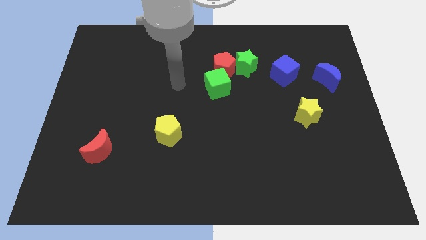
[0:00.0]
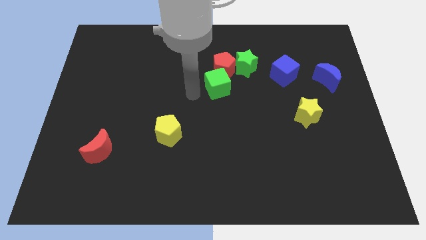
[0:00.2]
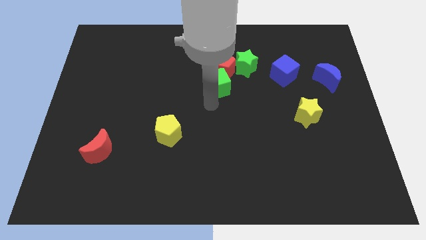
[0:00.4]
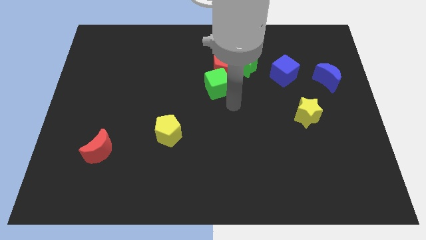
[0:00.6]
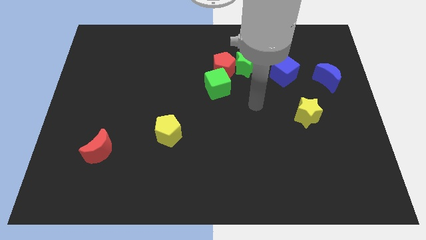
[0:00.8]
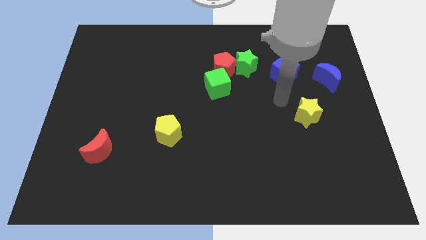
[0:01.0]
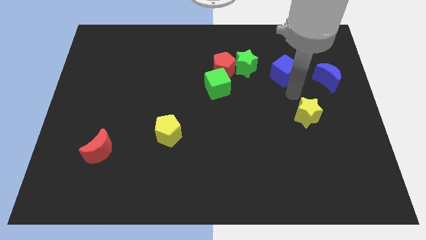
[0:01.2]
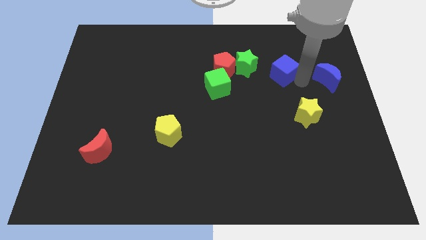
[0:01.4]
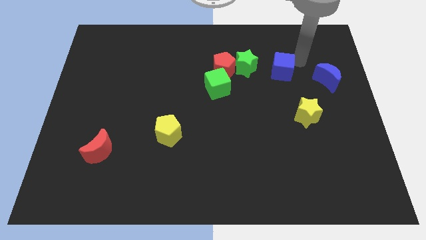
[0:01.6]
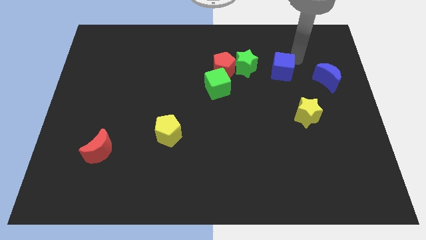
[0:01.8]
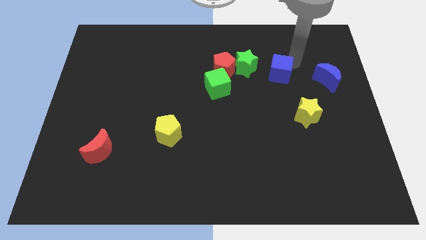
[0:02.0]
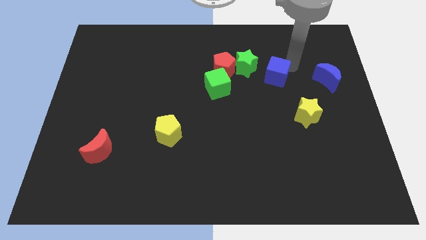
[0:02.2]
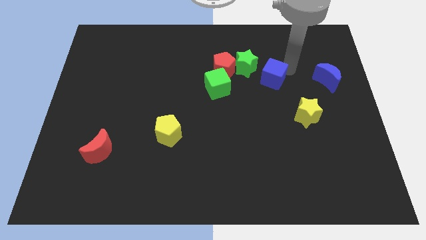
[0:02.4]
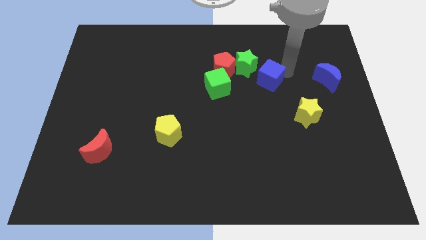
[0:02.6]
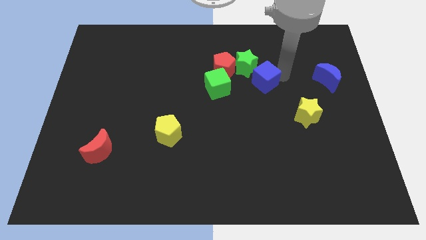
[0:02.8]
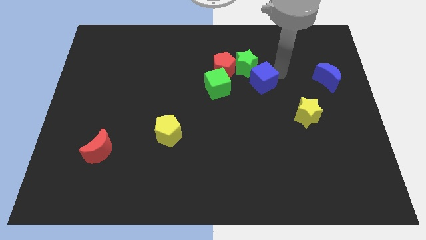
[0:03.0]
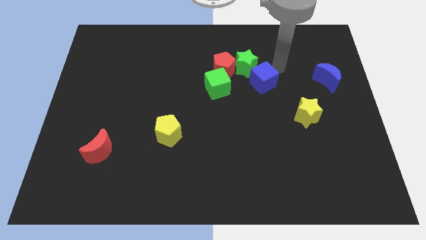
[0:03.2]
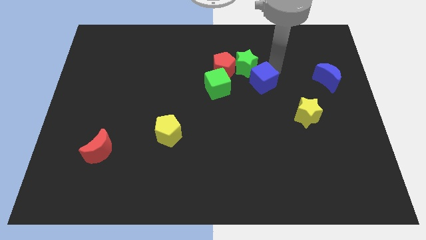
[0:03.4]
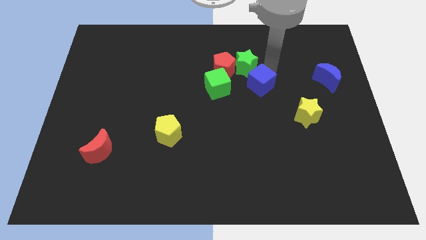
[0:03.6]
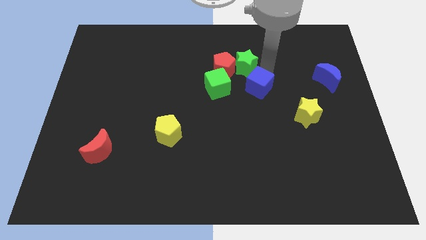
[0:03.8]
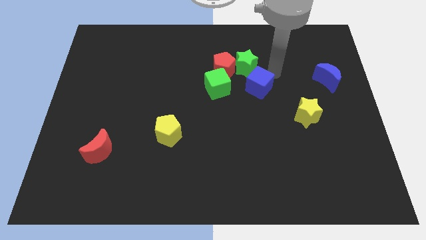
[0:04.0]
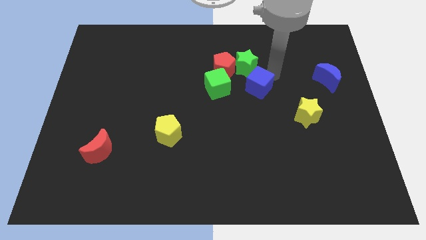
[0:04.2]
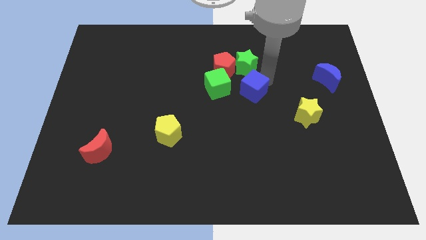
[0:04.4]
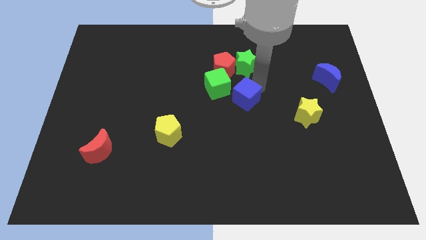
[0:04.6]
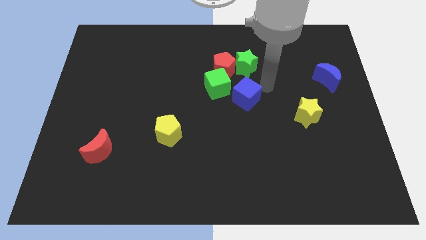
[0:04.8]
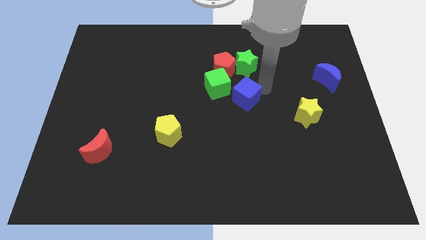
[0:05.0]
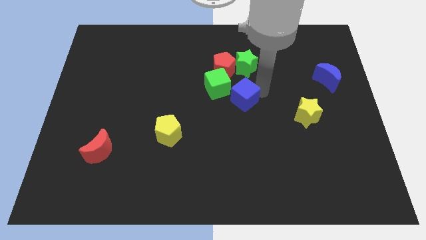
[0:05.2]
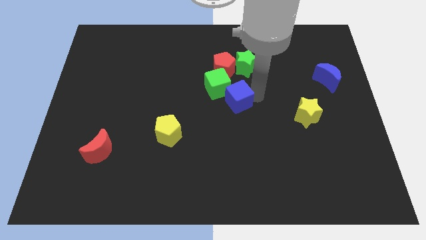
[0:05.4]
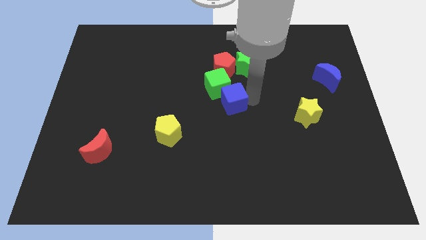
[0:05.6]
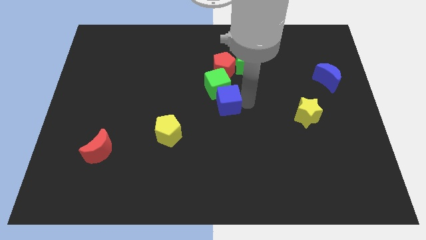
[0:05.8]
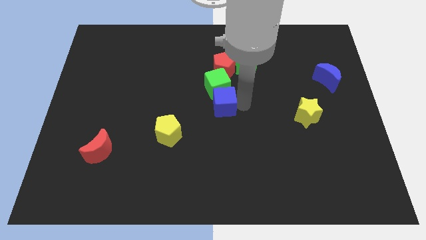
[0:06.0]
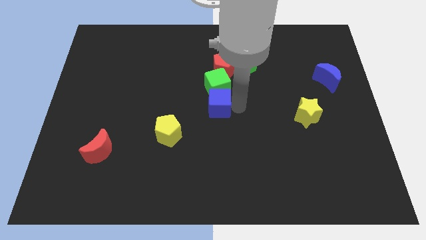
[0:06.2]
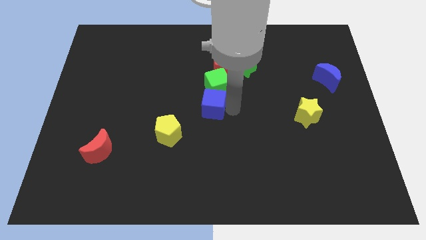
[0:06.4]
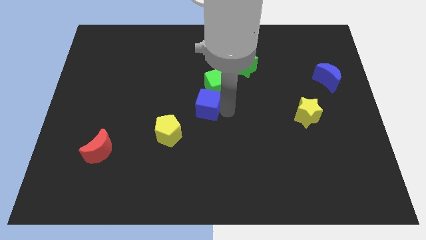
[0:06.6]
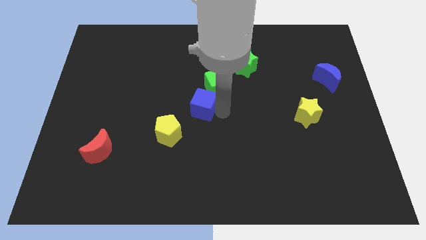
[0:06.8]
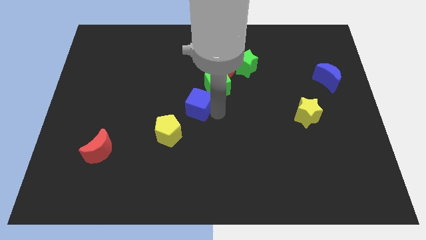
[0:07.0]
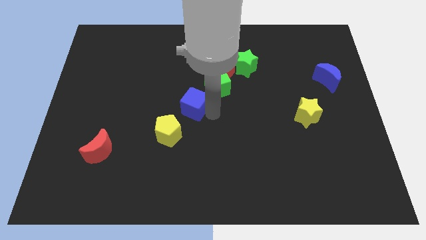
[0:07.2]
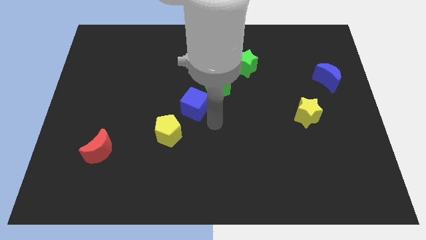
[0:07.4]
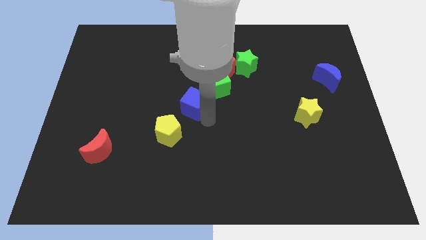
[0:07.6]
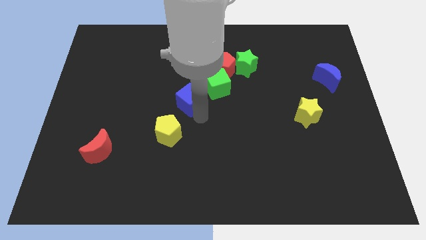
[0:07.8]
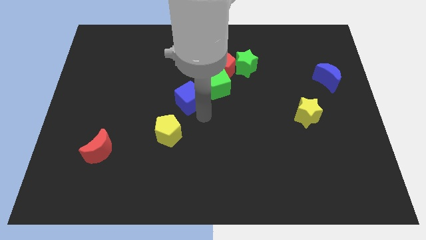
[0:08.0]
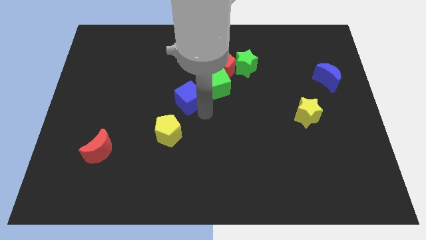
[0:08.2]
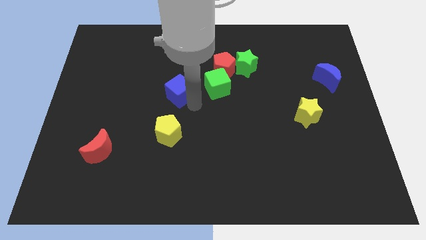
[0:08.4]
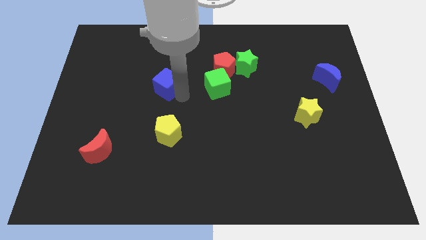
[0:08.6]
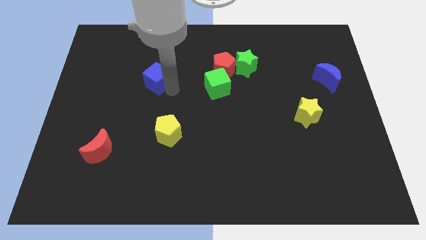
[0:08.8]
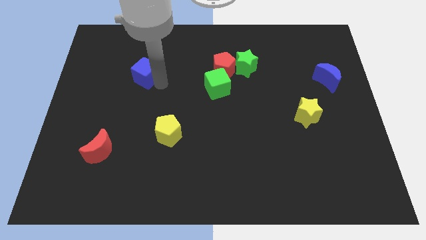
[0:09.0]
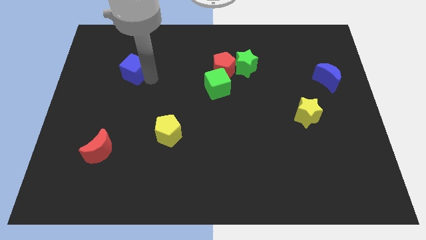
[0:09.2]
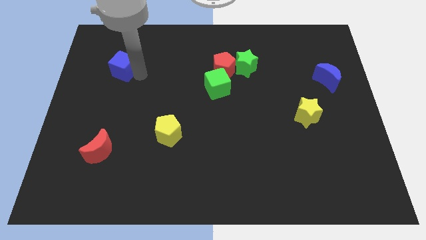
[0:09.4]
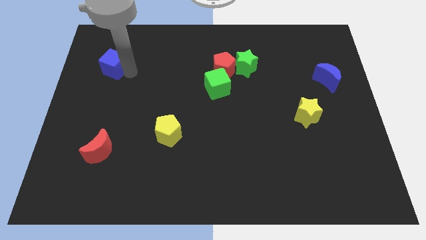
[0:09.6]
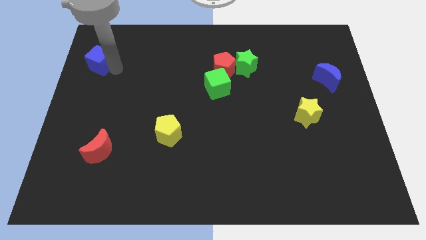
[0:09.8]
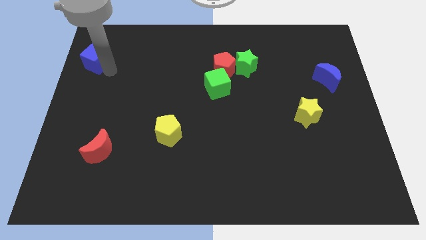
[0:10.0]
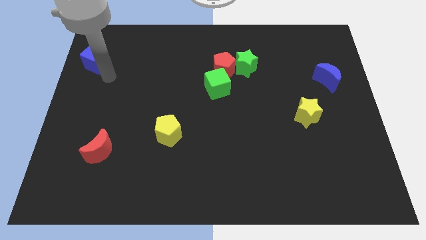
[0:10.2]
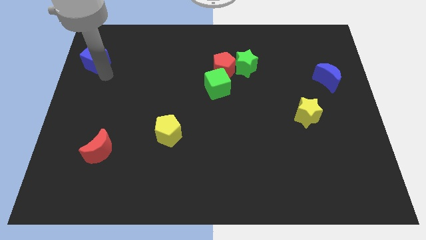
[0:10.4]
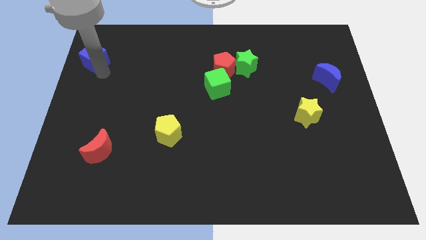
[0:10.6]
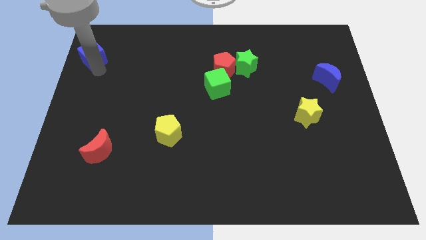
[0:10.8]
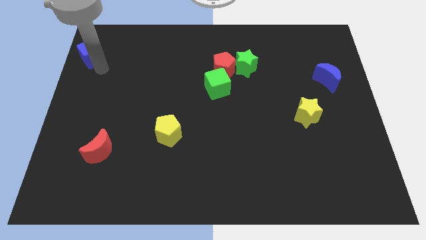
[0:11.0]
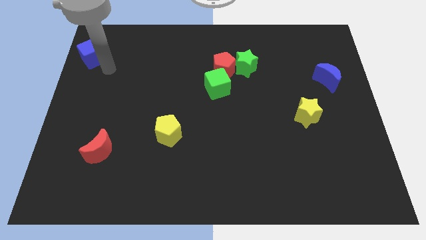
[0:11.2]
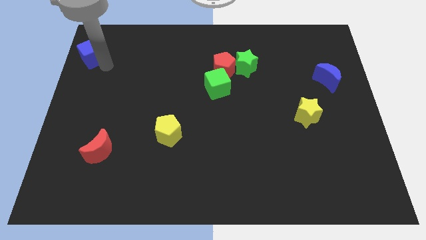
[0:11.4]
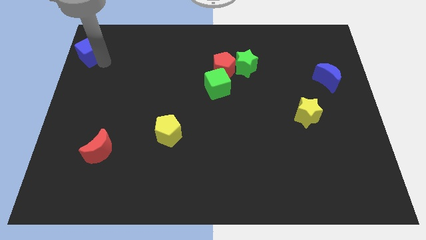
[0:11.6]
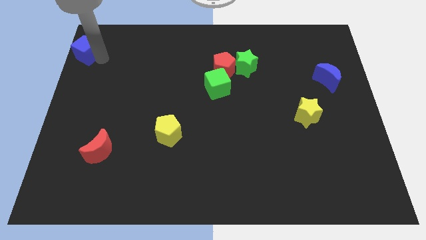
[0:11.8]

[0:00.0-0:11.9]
push the blue cube to the top left of the board
